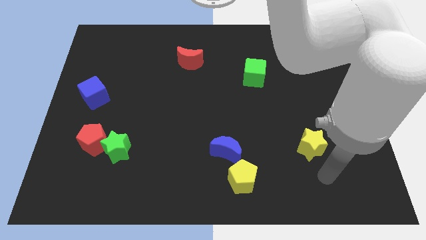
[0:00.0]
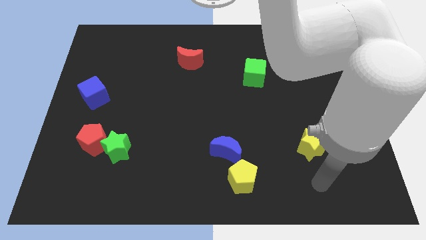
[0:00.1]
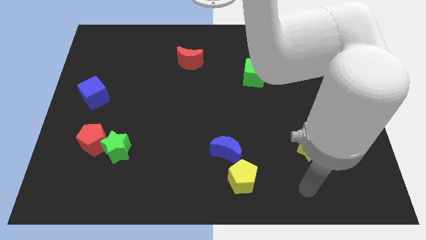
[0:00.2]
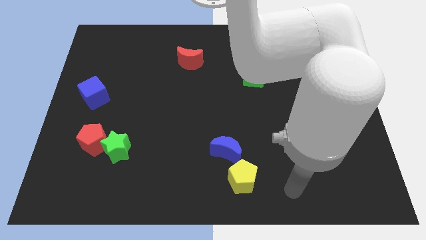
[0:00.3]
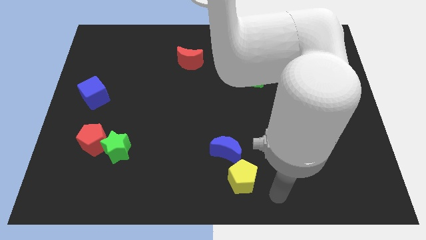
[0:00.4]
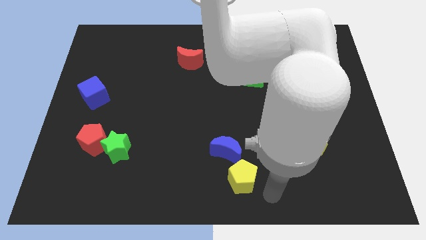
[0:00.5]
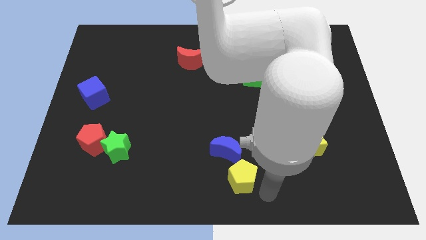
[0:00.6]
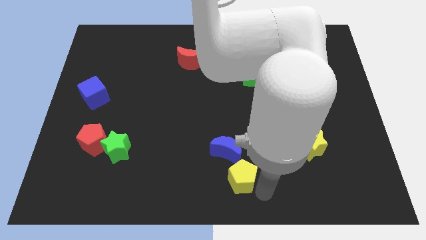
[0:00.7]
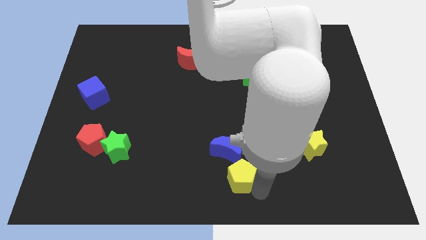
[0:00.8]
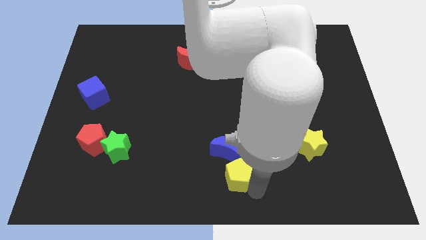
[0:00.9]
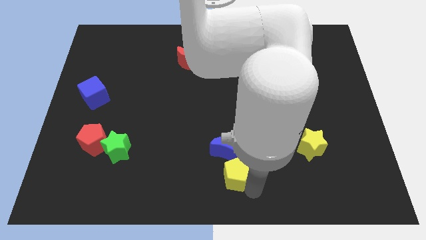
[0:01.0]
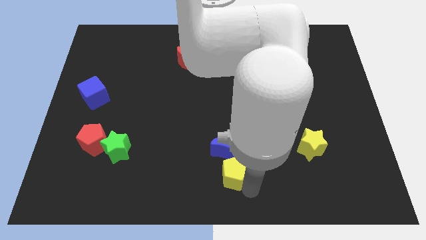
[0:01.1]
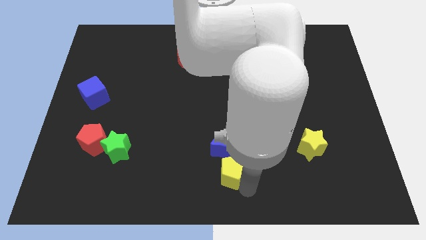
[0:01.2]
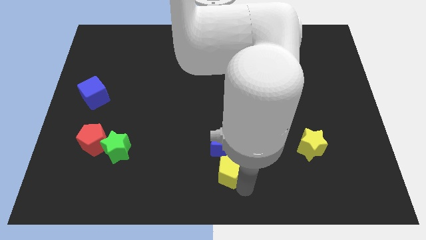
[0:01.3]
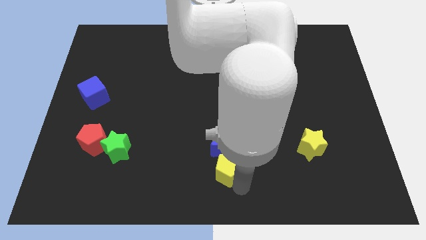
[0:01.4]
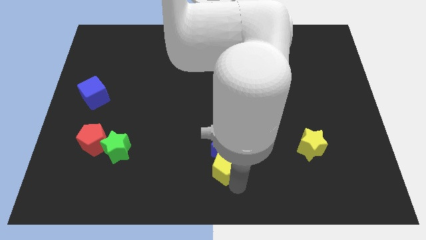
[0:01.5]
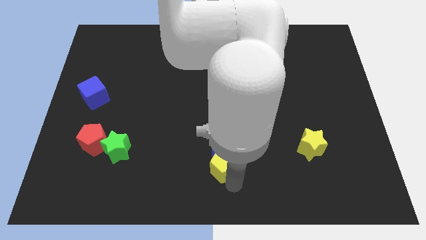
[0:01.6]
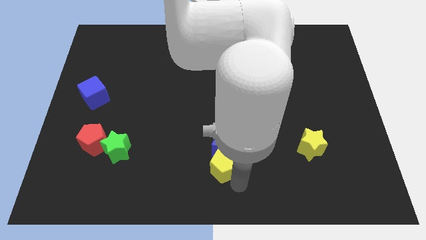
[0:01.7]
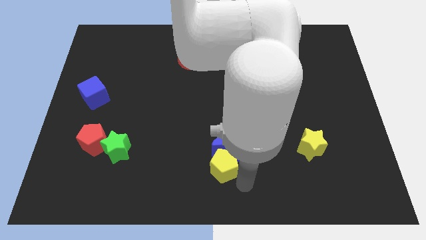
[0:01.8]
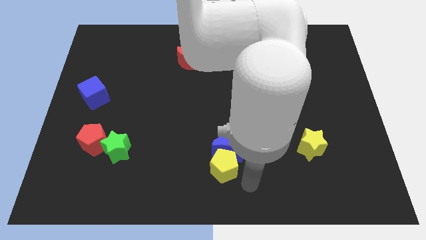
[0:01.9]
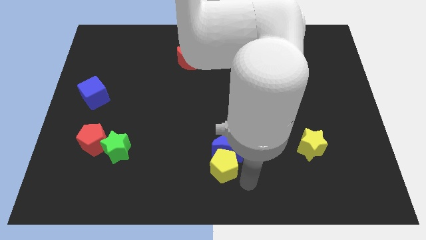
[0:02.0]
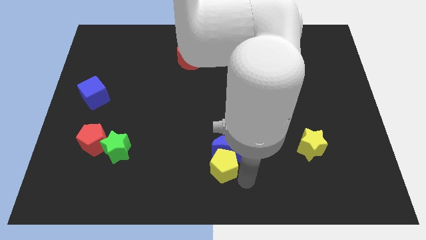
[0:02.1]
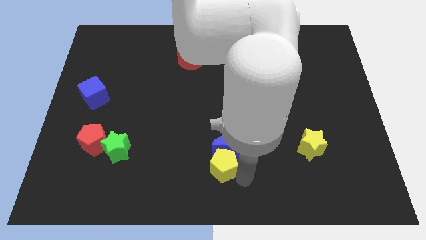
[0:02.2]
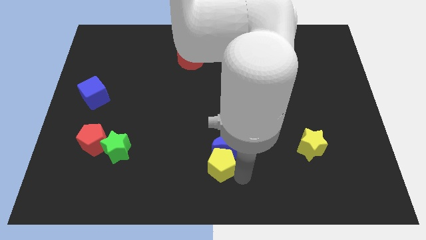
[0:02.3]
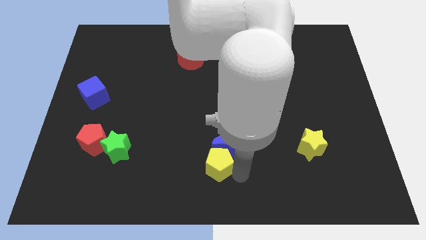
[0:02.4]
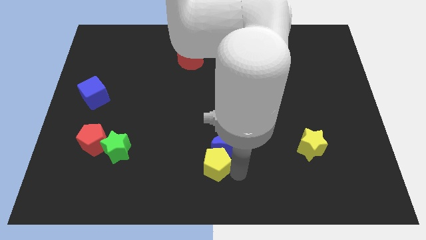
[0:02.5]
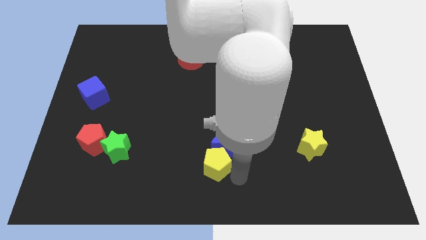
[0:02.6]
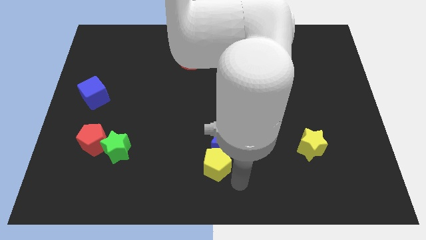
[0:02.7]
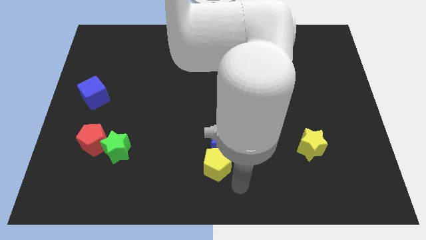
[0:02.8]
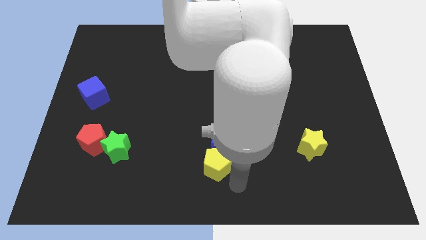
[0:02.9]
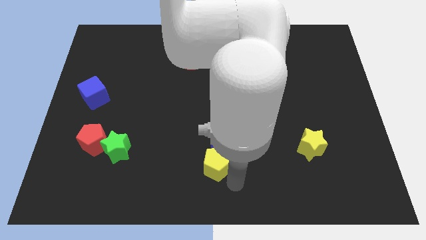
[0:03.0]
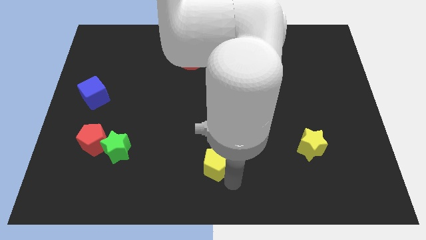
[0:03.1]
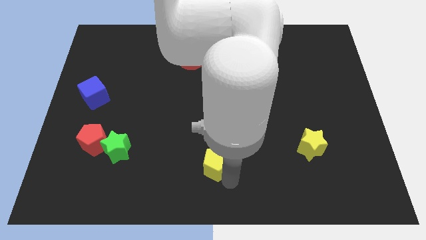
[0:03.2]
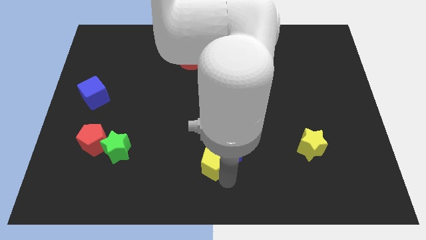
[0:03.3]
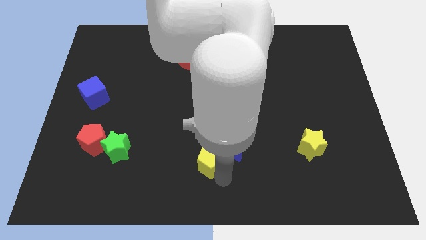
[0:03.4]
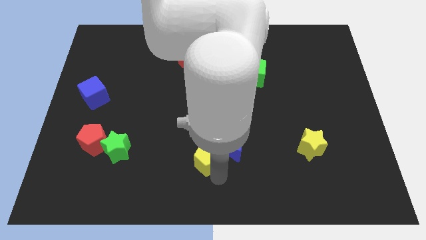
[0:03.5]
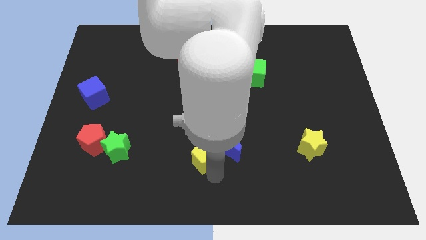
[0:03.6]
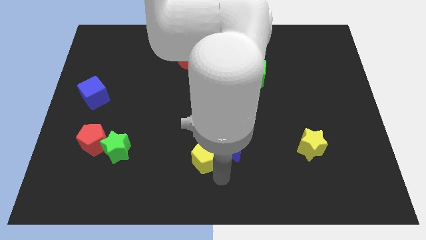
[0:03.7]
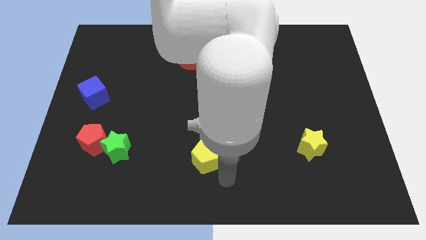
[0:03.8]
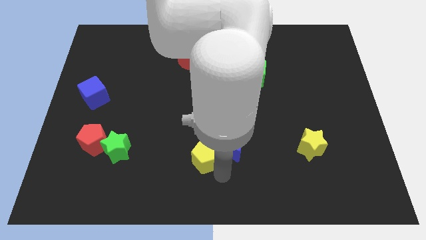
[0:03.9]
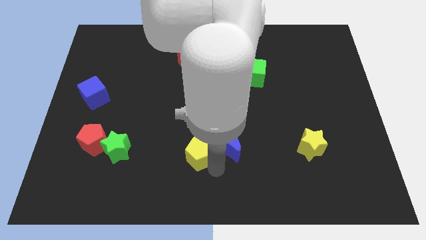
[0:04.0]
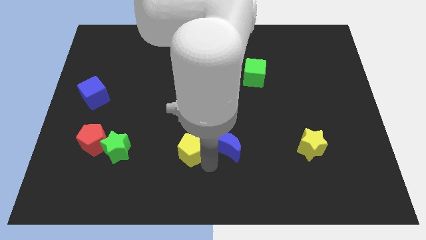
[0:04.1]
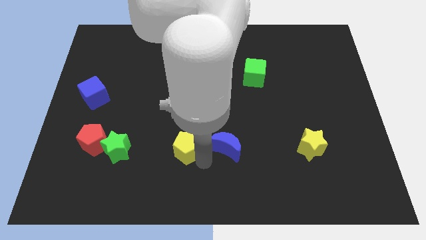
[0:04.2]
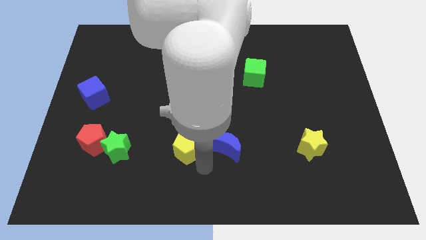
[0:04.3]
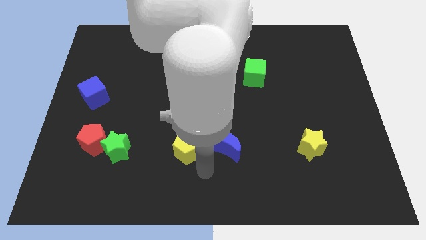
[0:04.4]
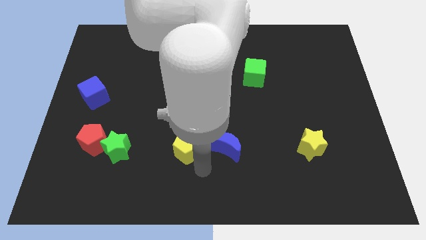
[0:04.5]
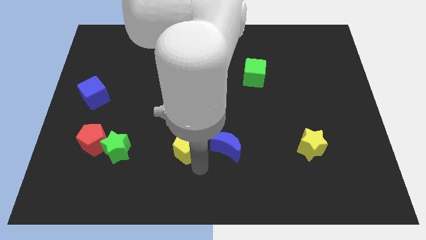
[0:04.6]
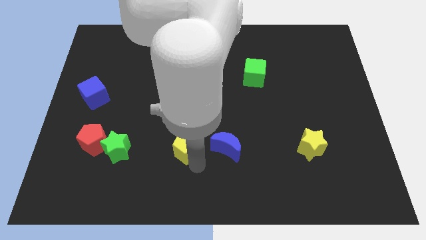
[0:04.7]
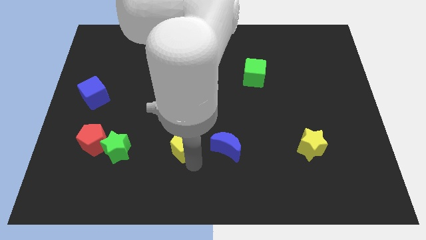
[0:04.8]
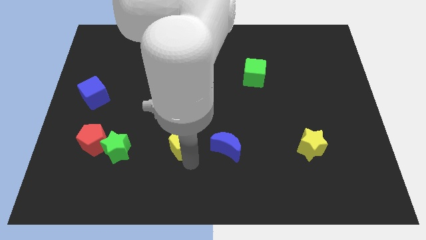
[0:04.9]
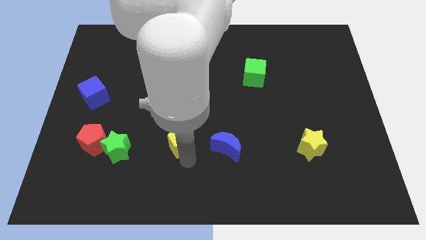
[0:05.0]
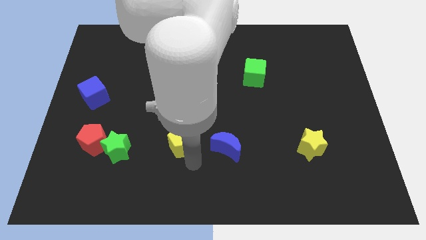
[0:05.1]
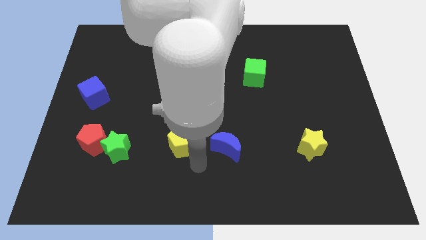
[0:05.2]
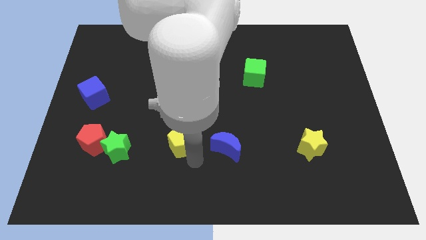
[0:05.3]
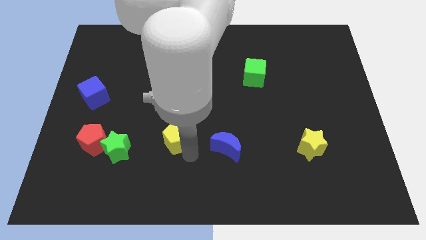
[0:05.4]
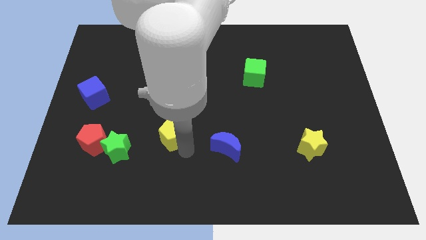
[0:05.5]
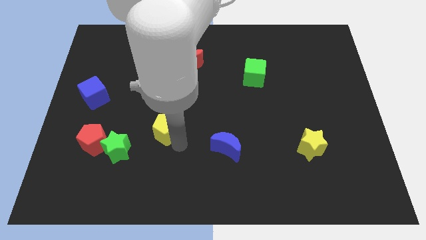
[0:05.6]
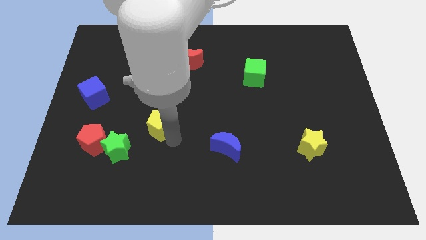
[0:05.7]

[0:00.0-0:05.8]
move the yellow pentagon upwards and left diagonally

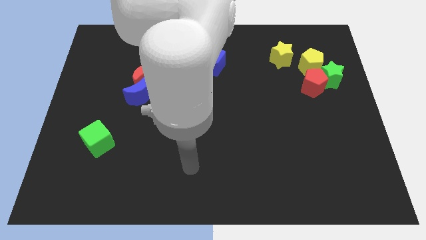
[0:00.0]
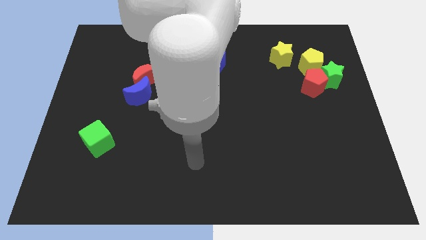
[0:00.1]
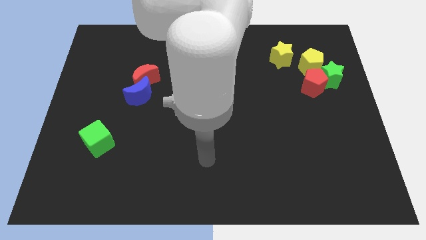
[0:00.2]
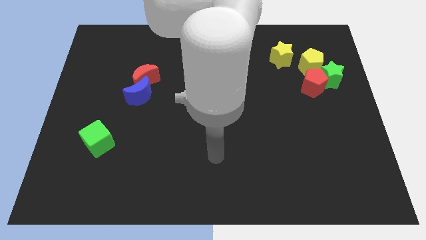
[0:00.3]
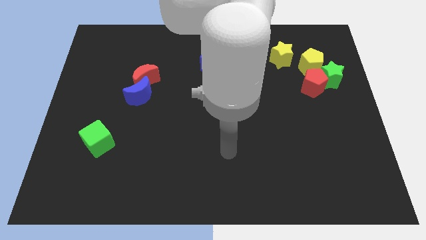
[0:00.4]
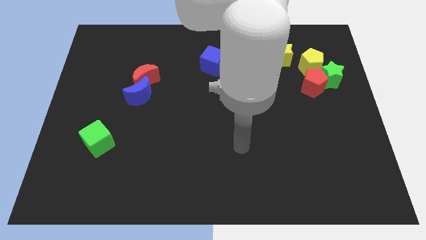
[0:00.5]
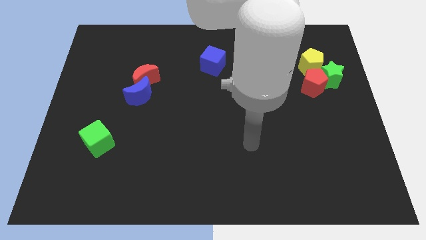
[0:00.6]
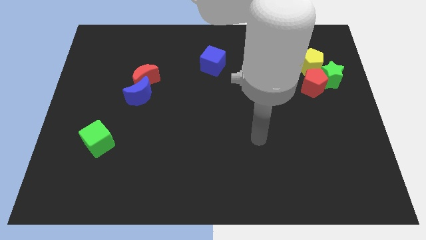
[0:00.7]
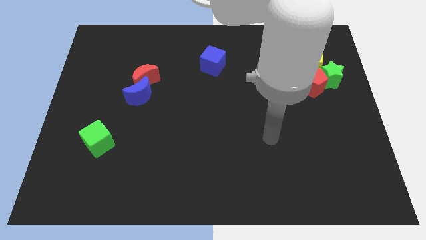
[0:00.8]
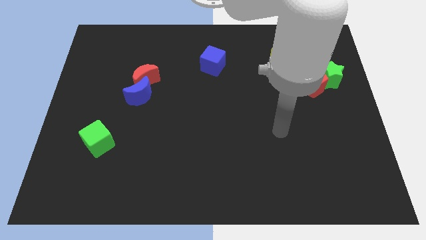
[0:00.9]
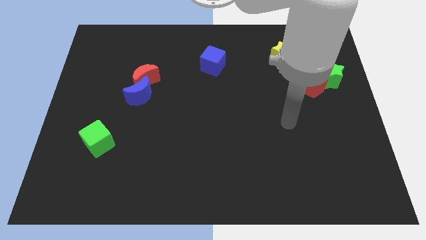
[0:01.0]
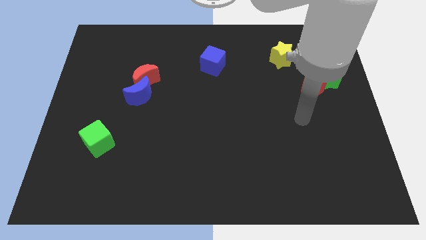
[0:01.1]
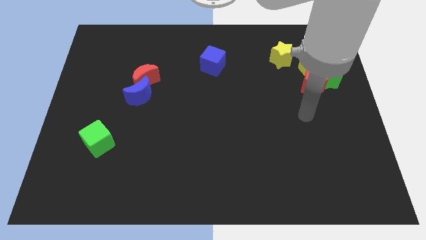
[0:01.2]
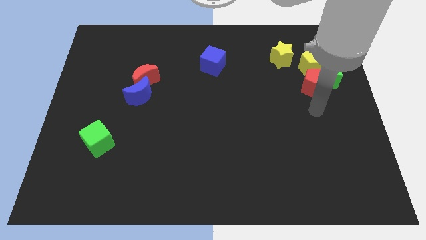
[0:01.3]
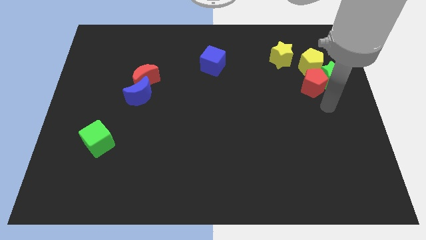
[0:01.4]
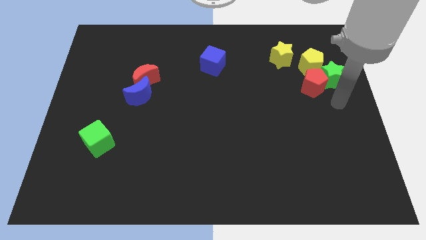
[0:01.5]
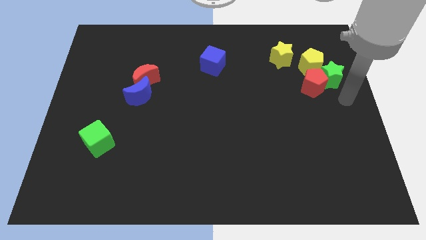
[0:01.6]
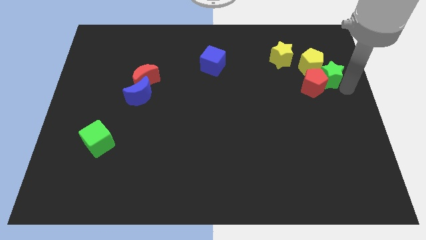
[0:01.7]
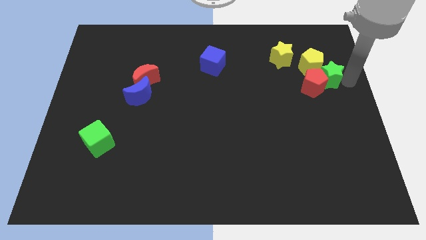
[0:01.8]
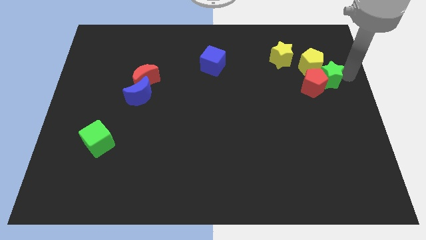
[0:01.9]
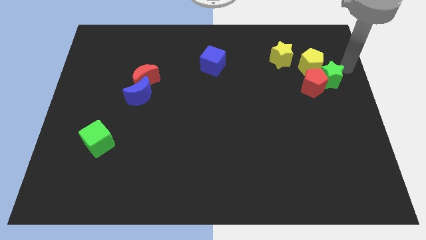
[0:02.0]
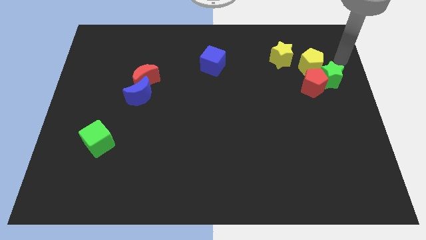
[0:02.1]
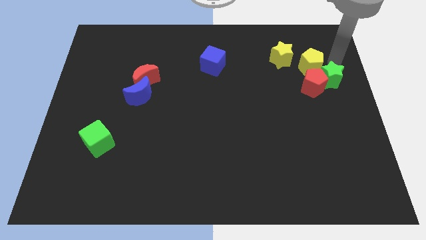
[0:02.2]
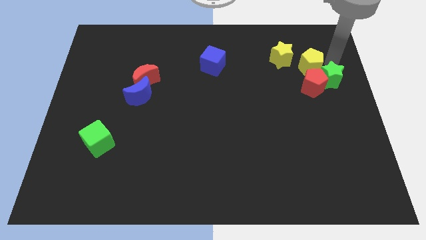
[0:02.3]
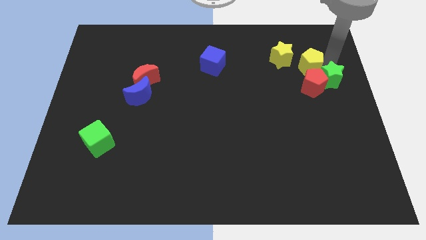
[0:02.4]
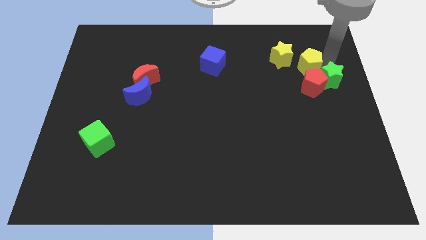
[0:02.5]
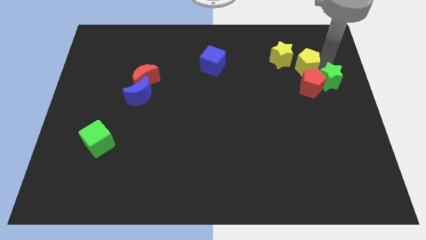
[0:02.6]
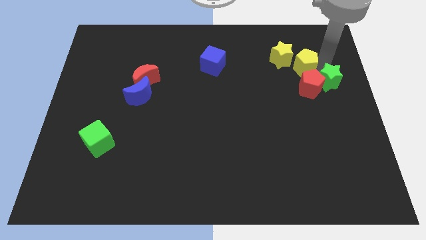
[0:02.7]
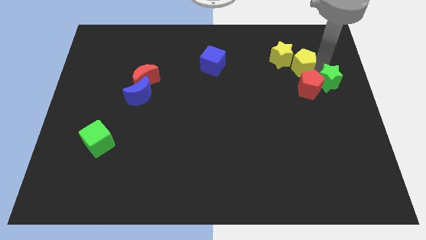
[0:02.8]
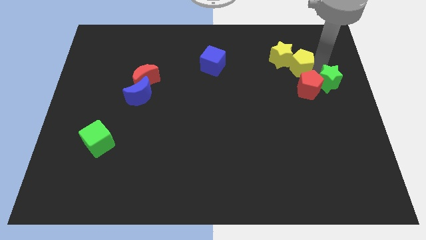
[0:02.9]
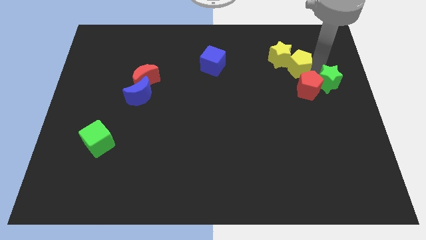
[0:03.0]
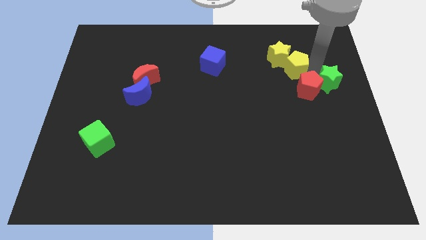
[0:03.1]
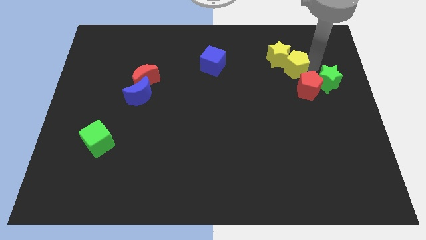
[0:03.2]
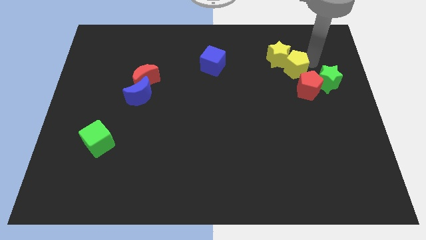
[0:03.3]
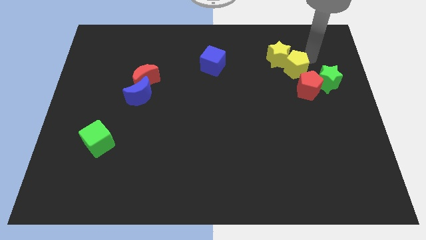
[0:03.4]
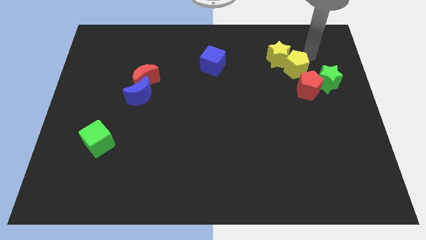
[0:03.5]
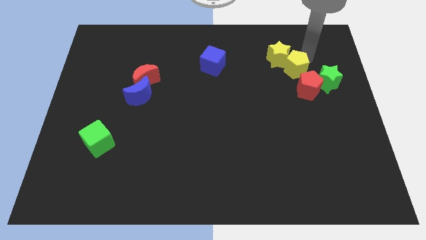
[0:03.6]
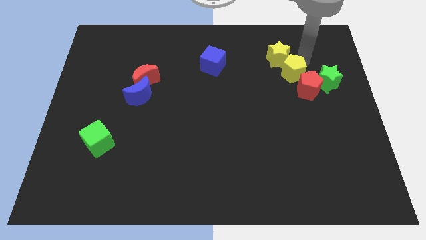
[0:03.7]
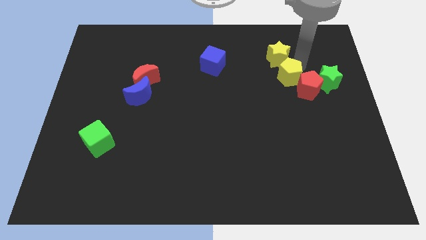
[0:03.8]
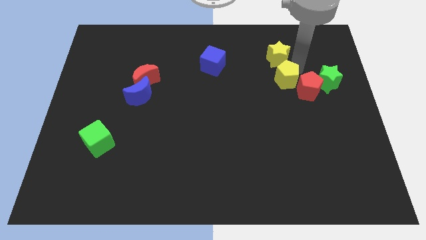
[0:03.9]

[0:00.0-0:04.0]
push the yellow pentagon down and then left a little bit
